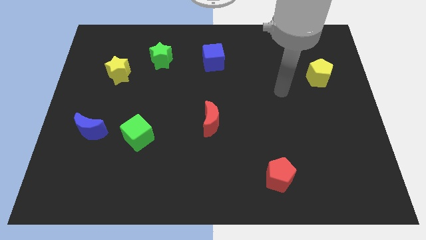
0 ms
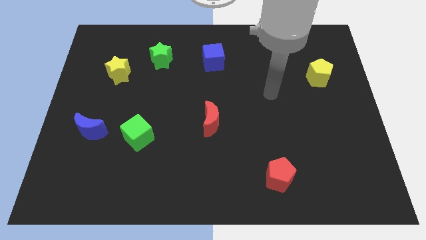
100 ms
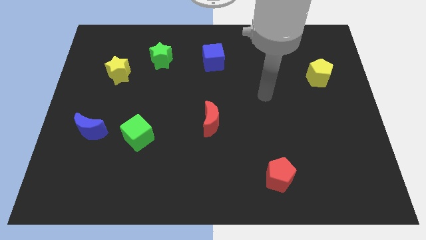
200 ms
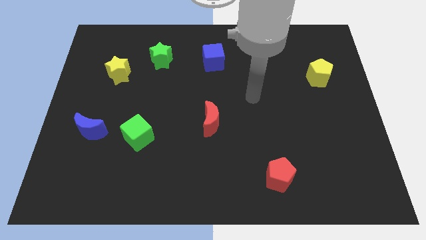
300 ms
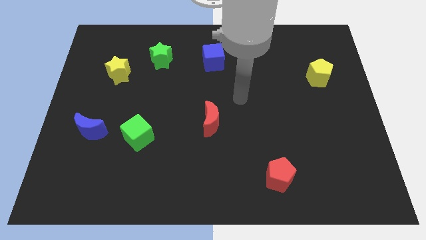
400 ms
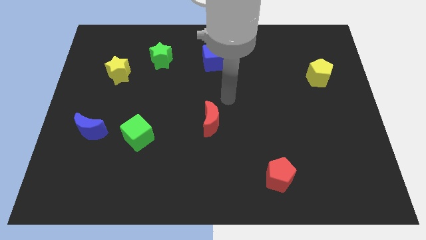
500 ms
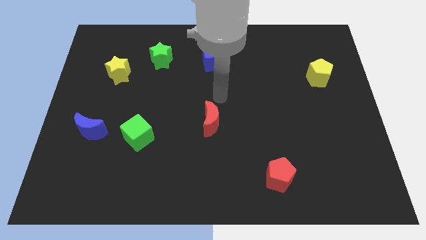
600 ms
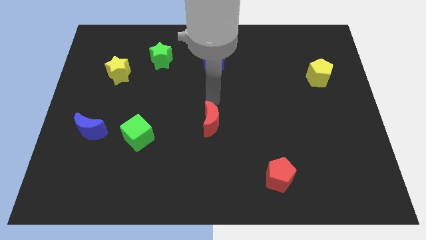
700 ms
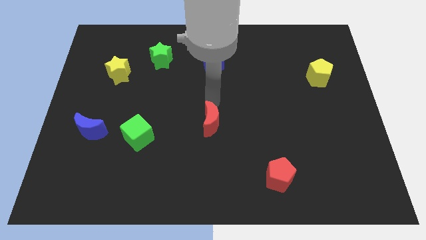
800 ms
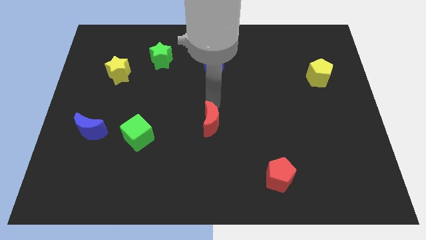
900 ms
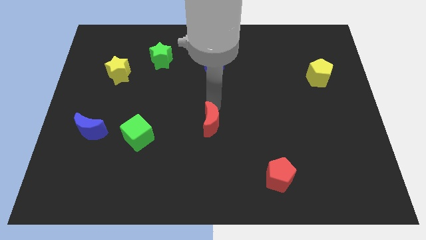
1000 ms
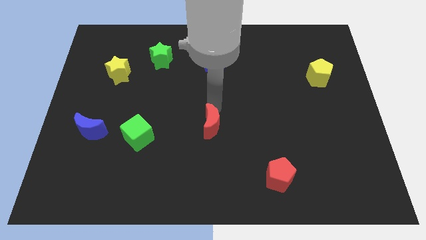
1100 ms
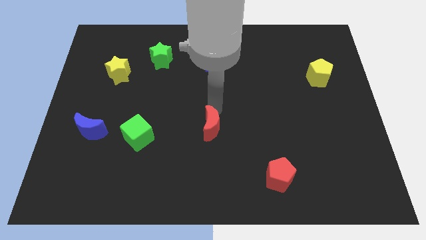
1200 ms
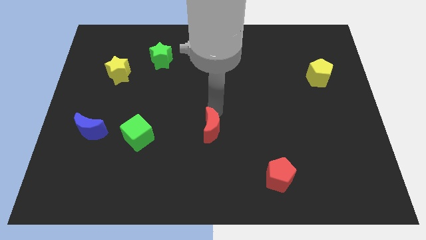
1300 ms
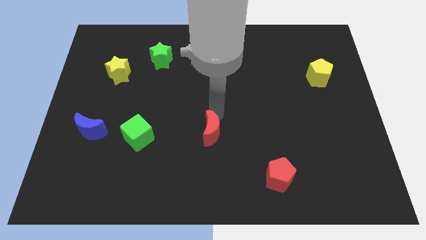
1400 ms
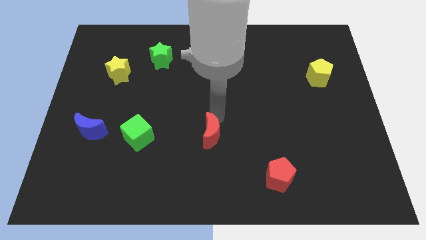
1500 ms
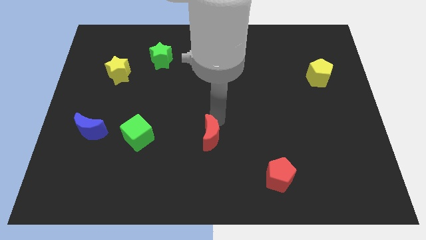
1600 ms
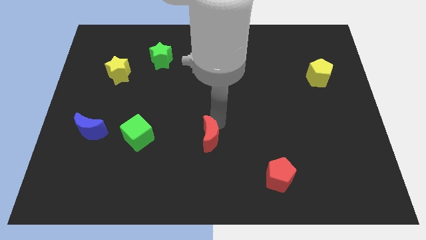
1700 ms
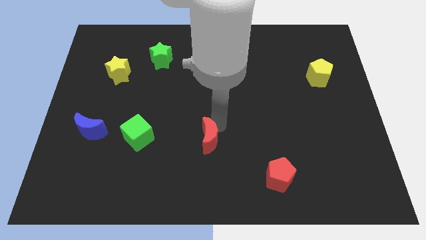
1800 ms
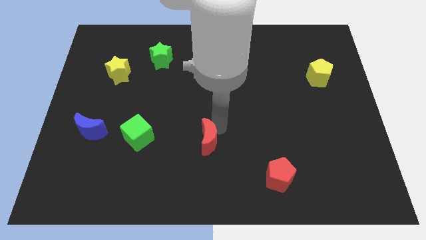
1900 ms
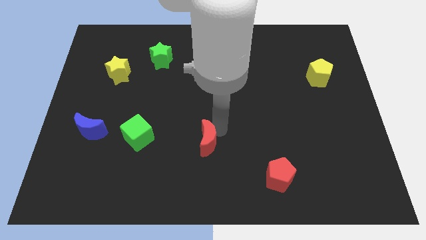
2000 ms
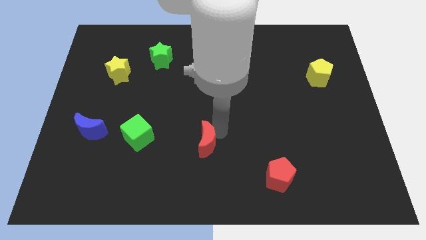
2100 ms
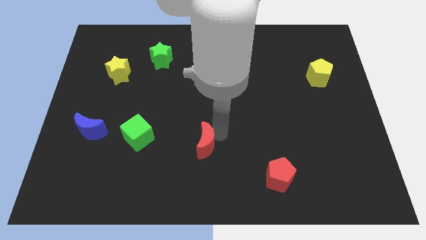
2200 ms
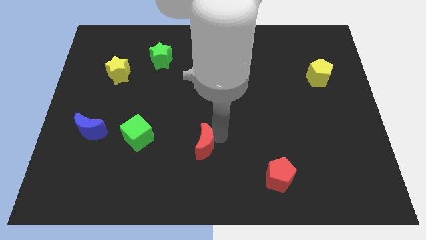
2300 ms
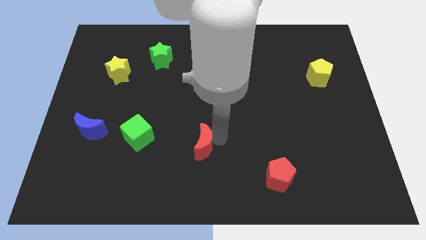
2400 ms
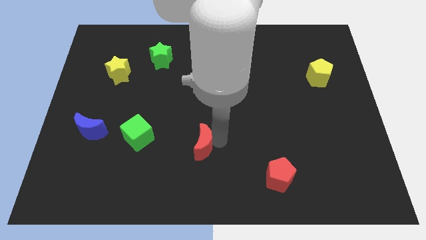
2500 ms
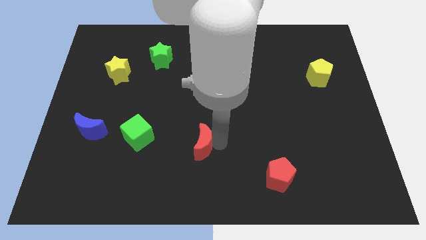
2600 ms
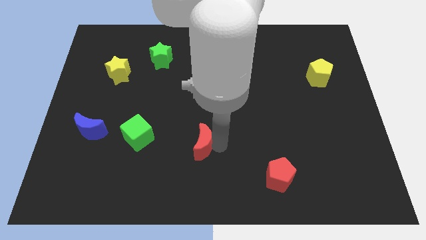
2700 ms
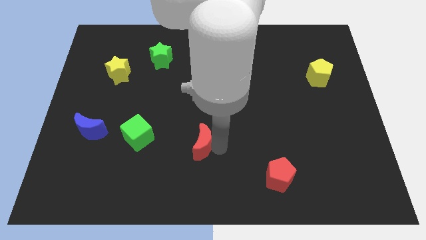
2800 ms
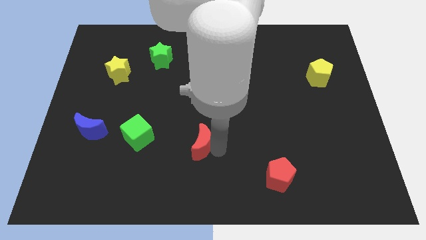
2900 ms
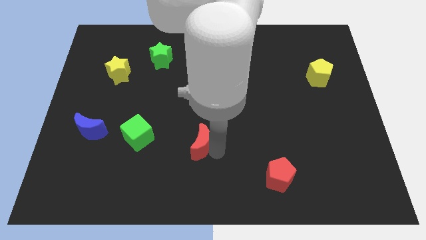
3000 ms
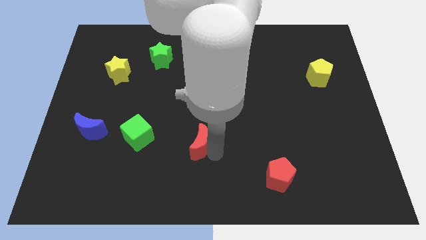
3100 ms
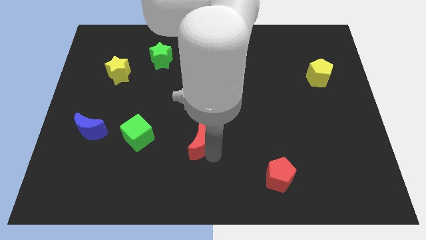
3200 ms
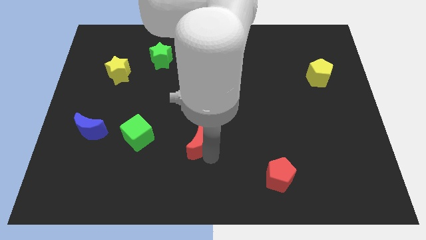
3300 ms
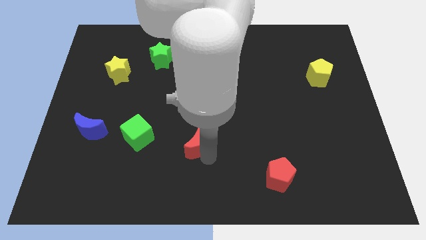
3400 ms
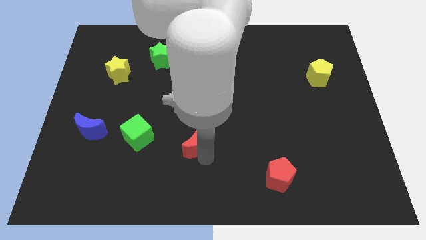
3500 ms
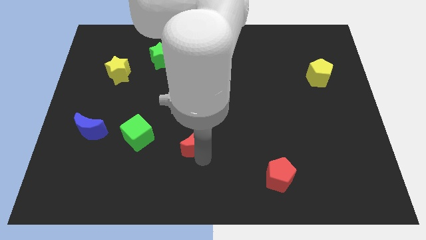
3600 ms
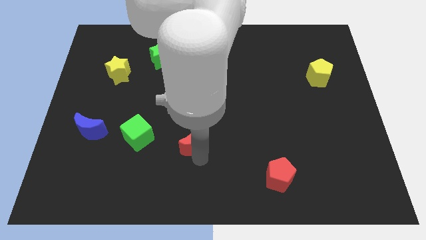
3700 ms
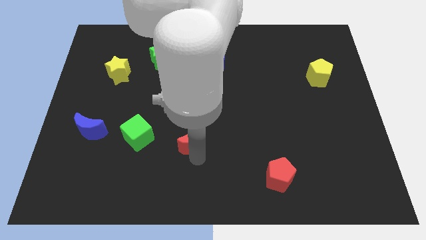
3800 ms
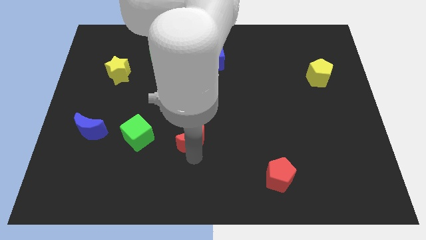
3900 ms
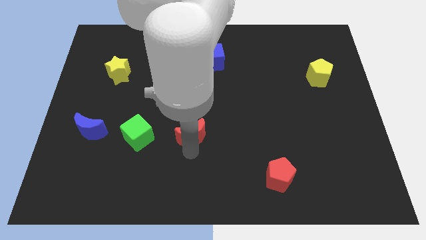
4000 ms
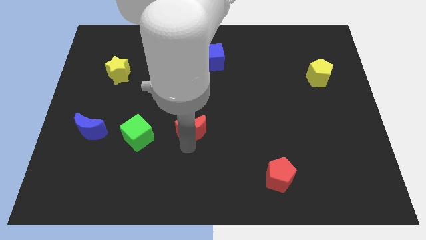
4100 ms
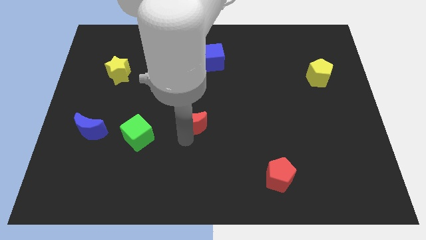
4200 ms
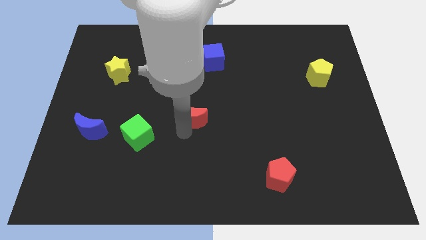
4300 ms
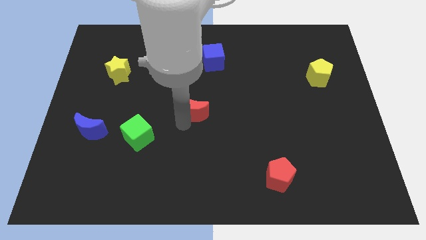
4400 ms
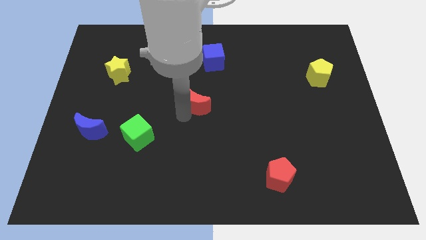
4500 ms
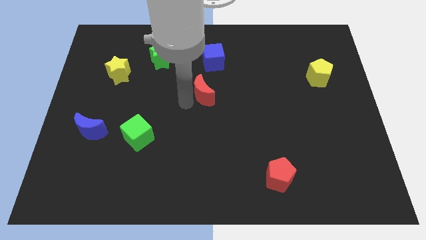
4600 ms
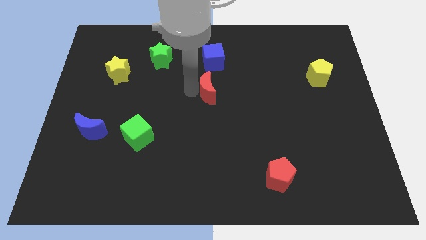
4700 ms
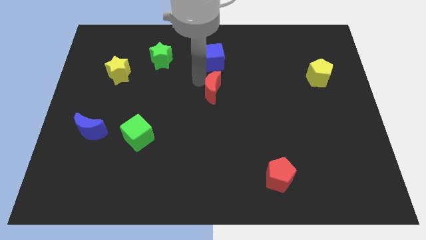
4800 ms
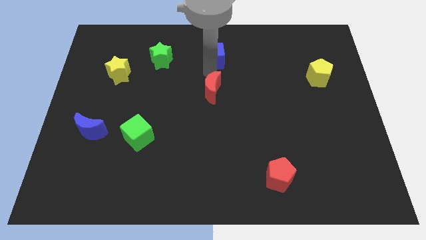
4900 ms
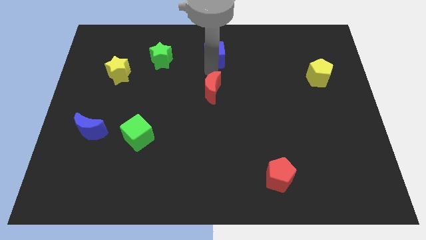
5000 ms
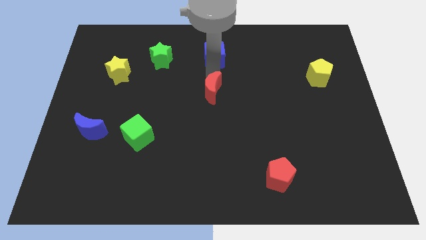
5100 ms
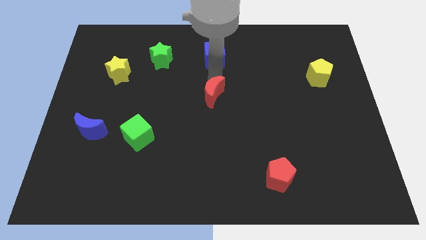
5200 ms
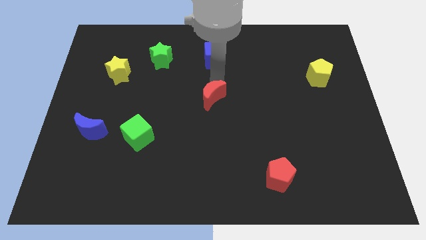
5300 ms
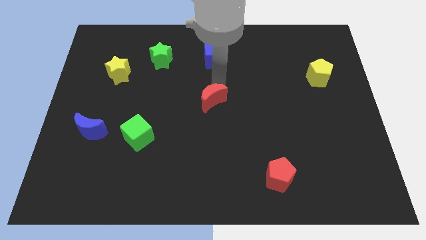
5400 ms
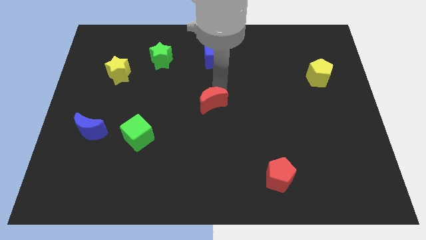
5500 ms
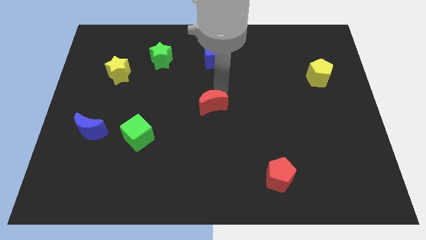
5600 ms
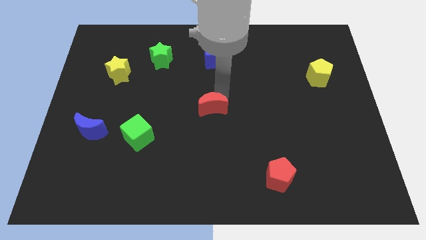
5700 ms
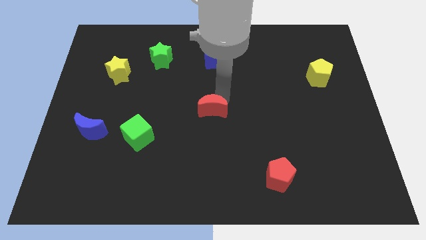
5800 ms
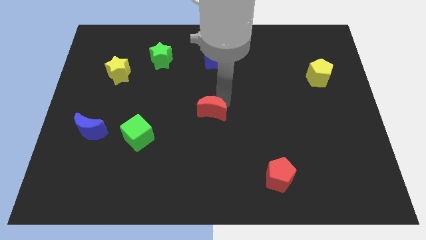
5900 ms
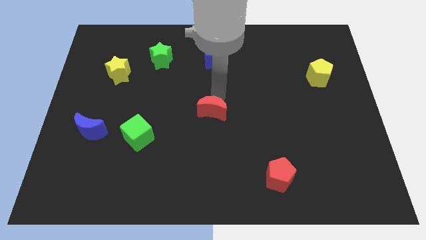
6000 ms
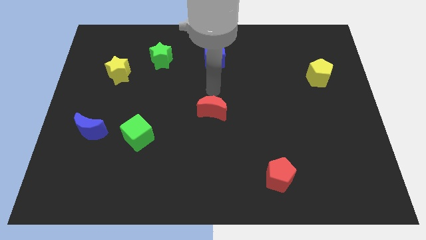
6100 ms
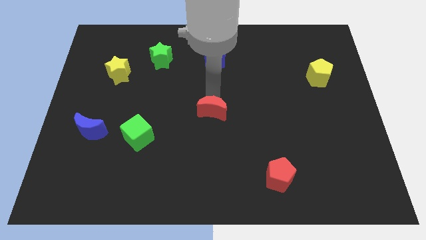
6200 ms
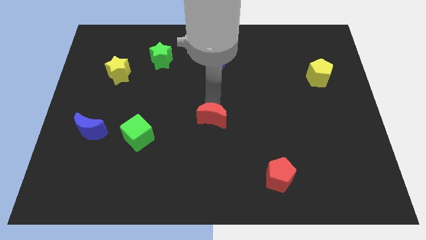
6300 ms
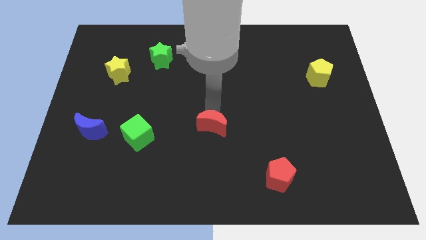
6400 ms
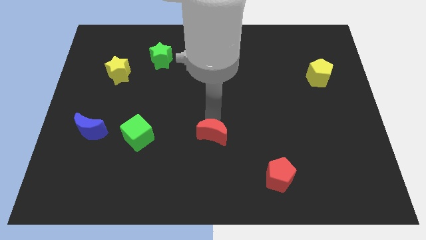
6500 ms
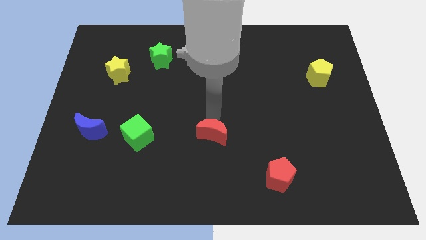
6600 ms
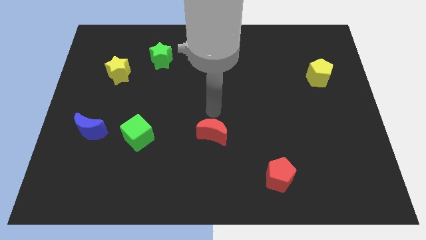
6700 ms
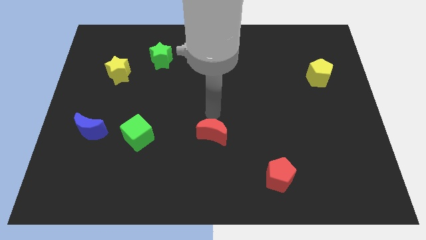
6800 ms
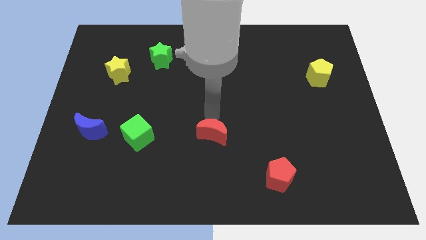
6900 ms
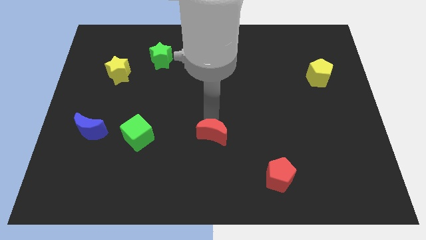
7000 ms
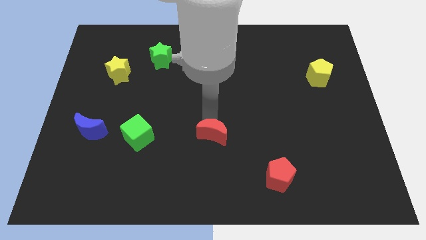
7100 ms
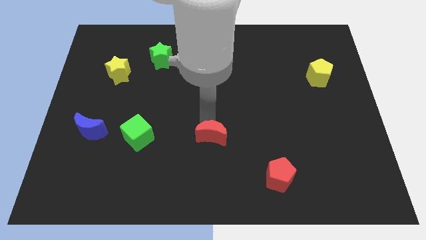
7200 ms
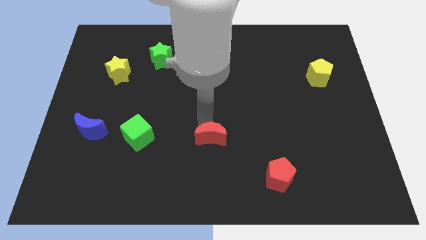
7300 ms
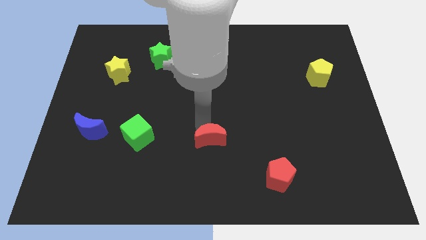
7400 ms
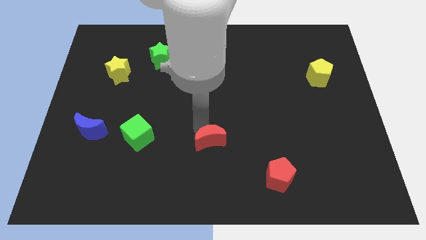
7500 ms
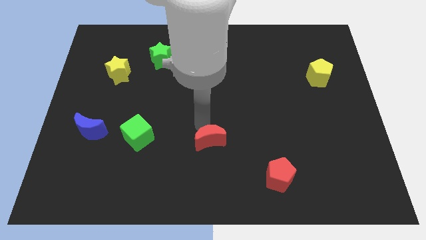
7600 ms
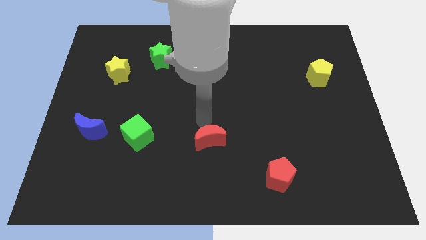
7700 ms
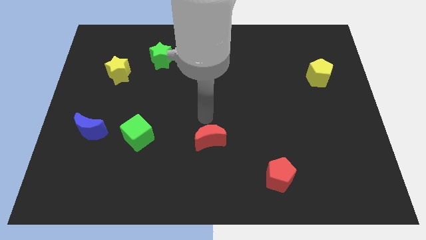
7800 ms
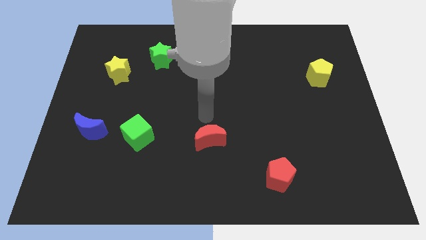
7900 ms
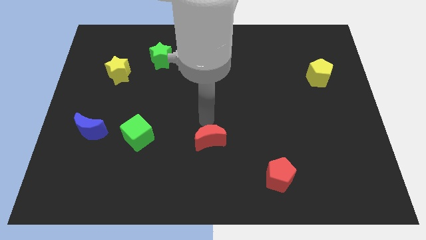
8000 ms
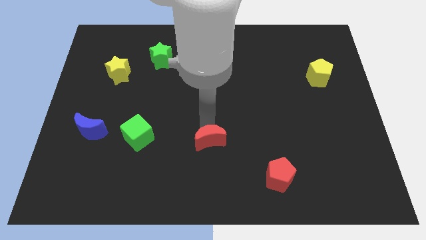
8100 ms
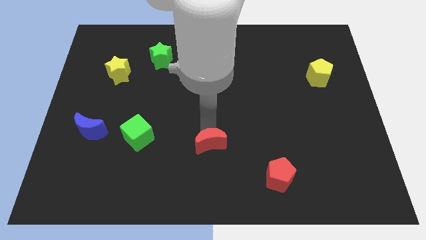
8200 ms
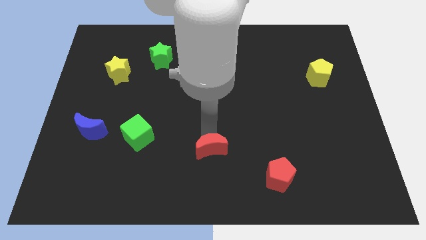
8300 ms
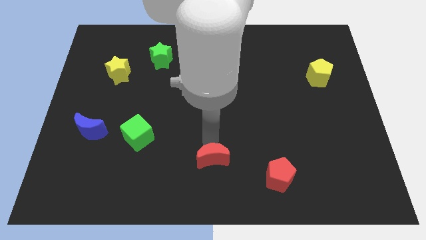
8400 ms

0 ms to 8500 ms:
push the red moon to the bottom side
